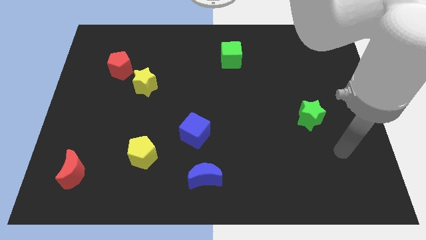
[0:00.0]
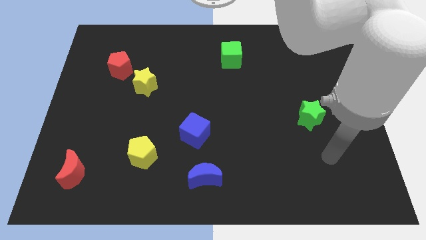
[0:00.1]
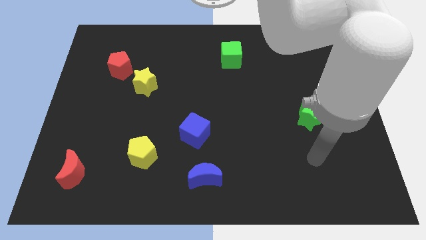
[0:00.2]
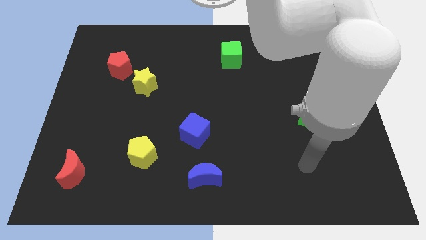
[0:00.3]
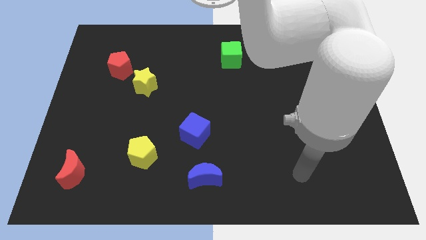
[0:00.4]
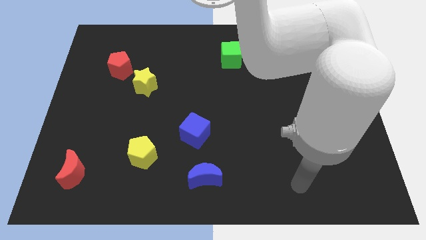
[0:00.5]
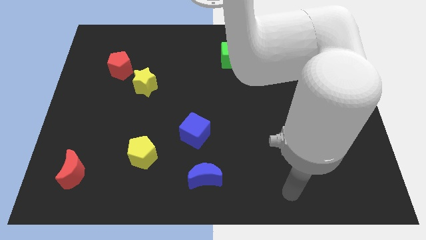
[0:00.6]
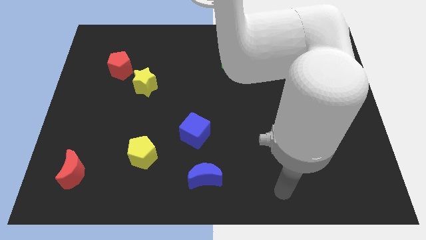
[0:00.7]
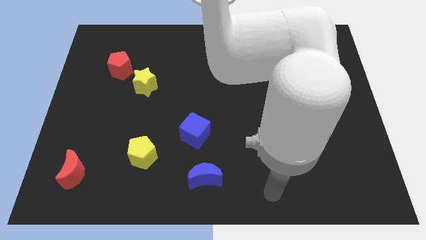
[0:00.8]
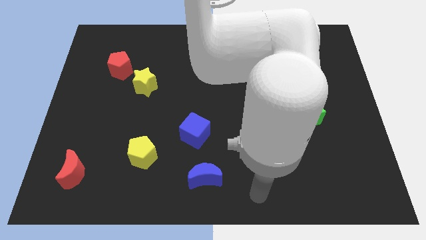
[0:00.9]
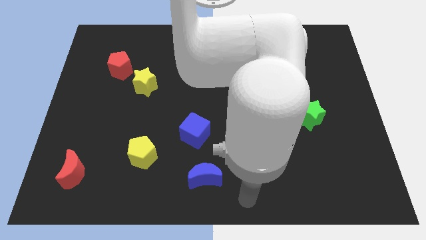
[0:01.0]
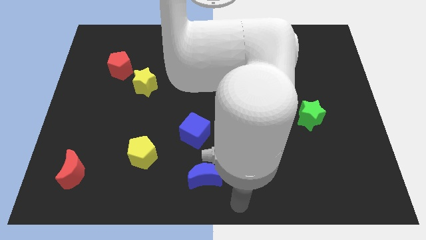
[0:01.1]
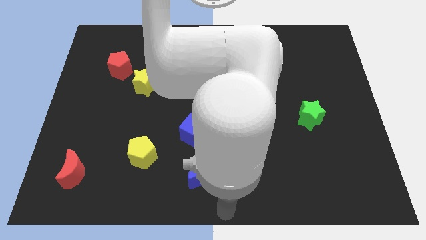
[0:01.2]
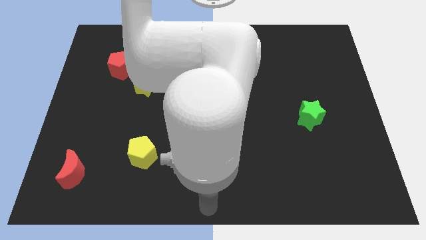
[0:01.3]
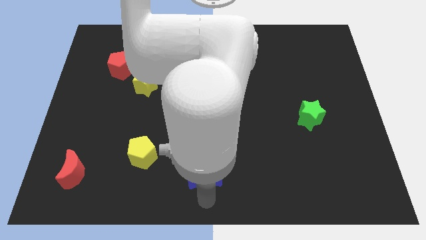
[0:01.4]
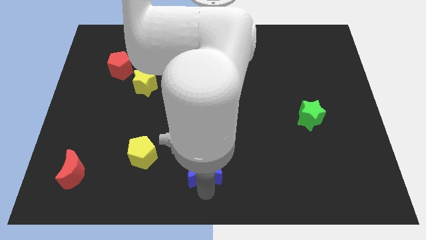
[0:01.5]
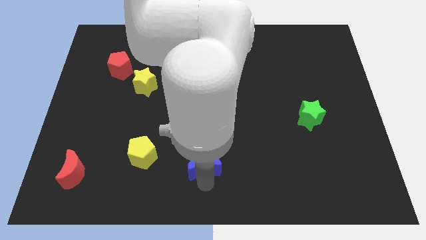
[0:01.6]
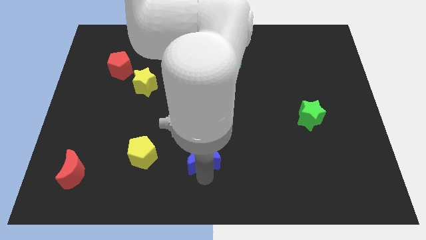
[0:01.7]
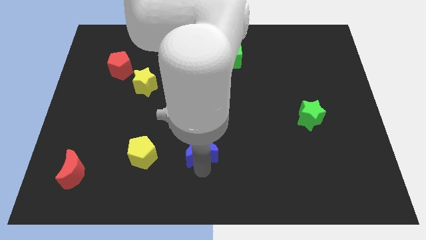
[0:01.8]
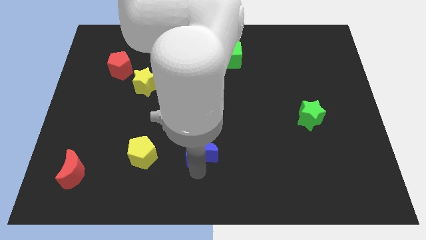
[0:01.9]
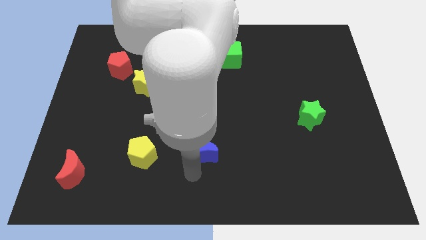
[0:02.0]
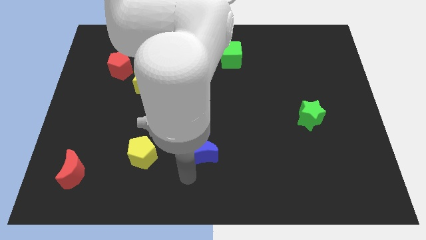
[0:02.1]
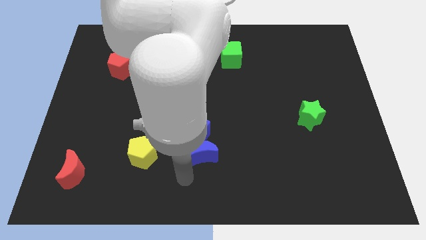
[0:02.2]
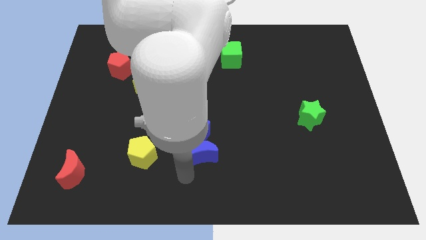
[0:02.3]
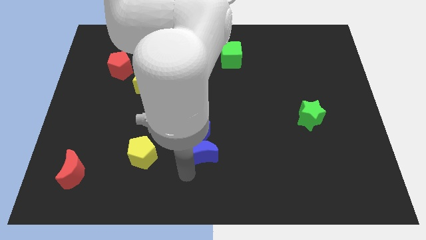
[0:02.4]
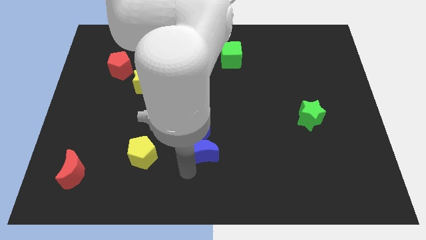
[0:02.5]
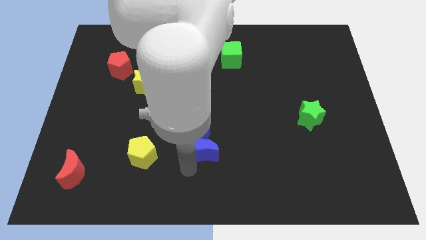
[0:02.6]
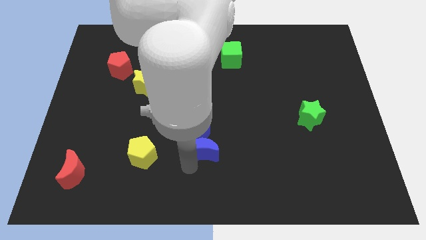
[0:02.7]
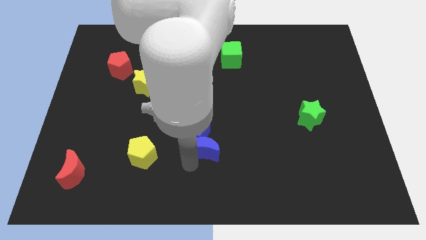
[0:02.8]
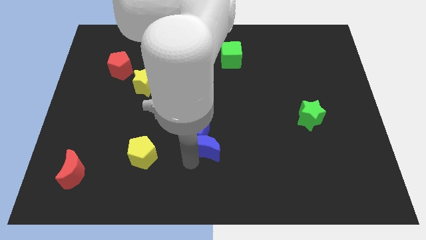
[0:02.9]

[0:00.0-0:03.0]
move the blue moon slightly up

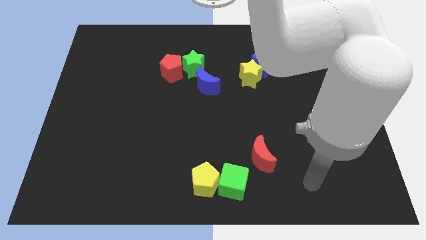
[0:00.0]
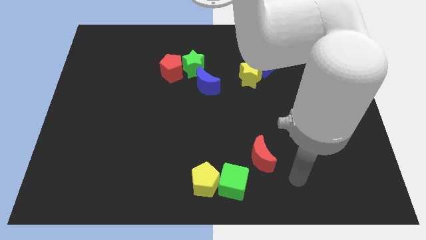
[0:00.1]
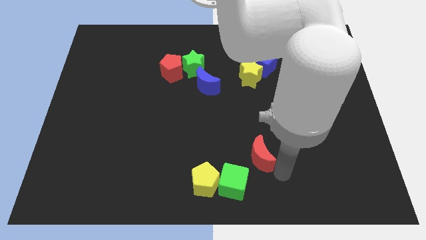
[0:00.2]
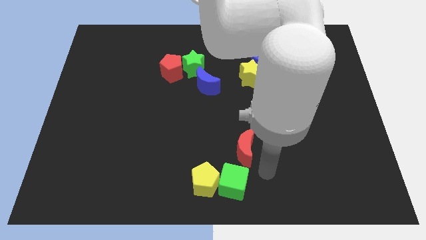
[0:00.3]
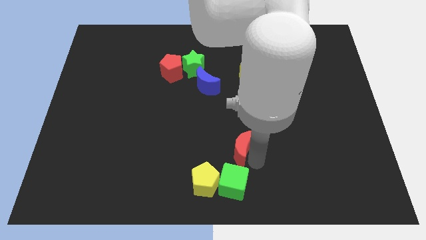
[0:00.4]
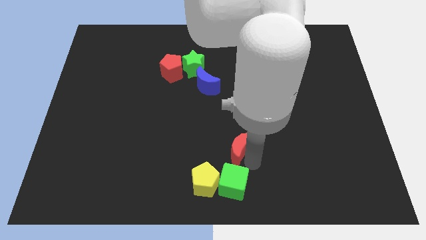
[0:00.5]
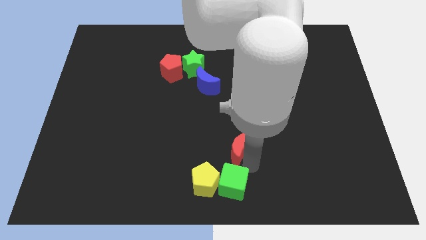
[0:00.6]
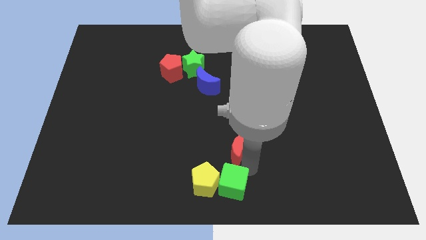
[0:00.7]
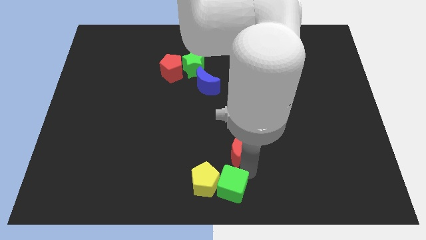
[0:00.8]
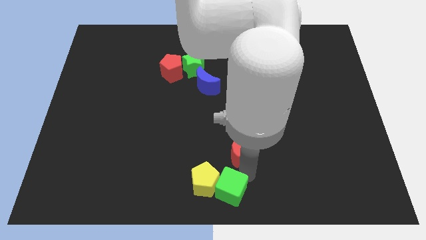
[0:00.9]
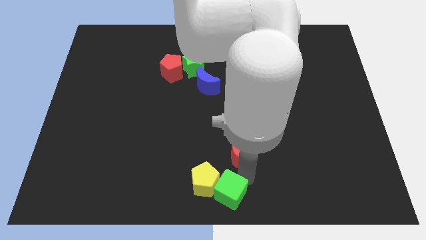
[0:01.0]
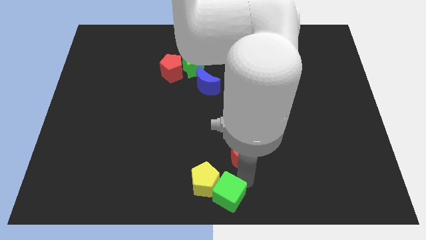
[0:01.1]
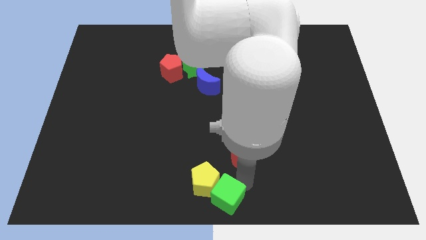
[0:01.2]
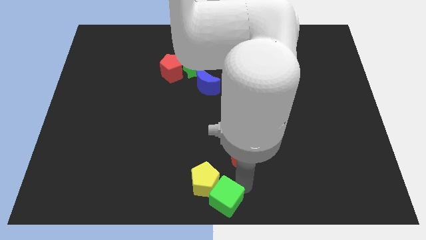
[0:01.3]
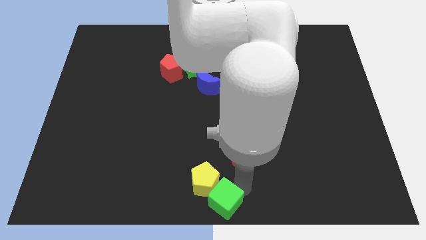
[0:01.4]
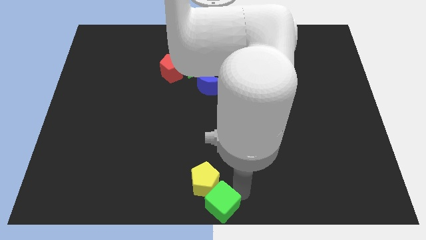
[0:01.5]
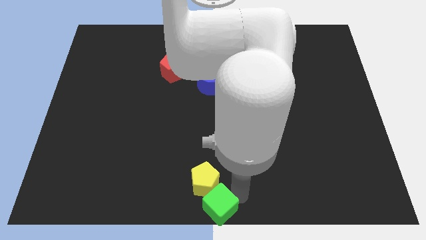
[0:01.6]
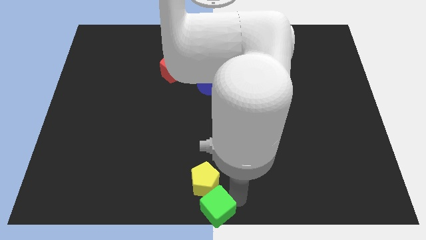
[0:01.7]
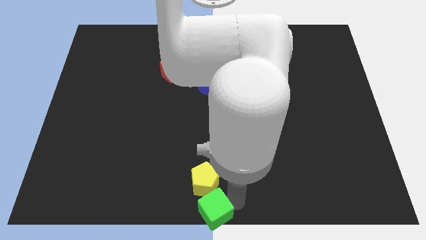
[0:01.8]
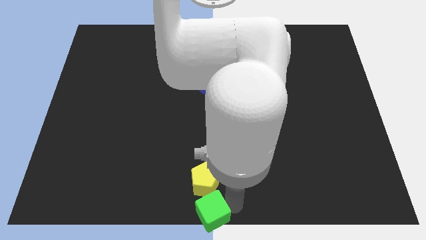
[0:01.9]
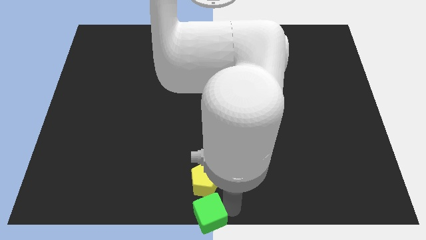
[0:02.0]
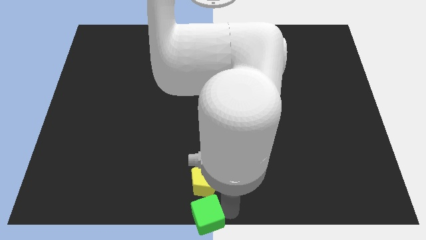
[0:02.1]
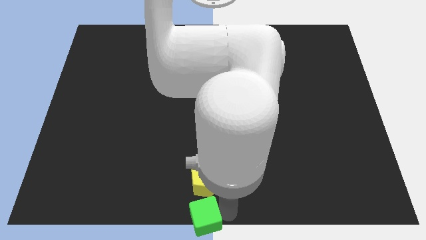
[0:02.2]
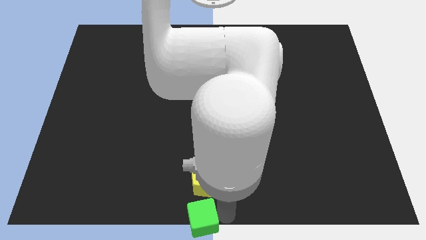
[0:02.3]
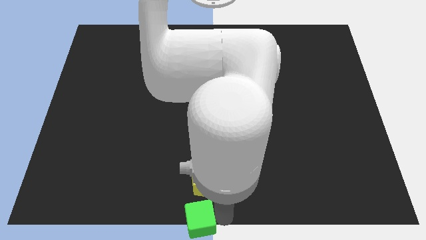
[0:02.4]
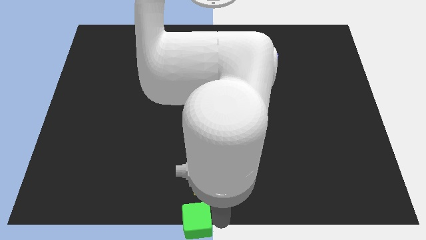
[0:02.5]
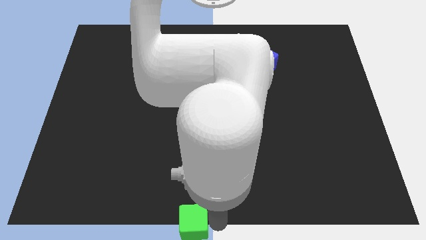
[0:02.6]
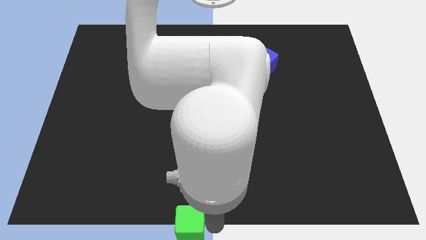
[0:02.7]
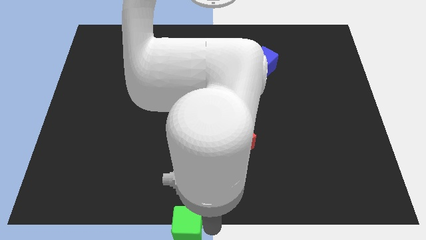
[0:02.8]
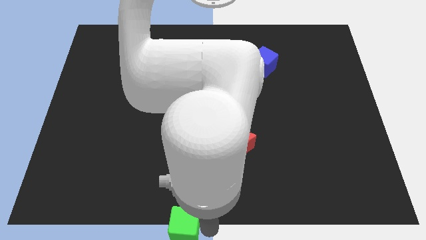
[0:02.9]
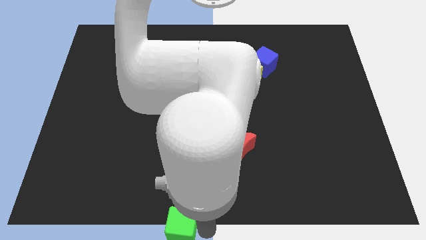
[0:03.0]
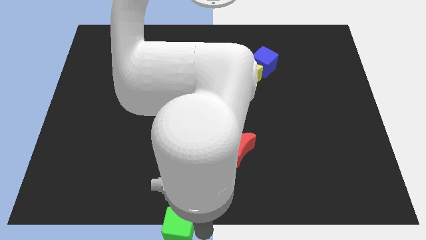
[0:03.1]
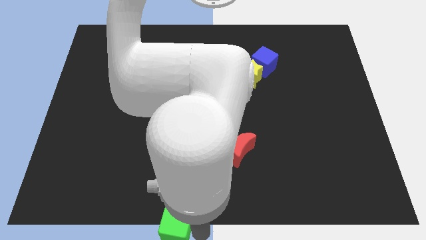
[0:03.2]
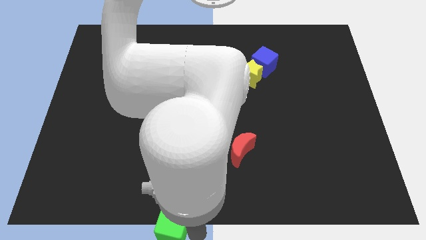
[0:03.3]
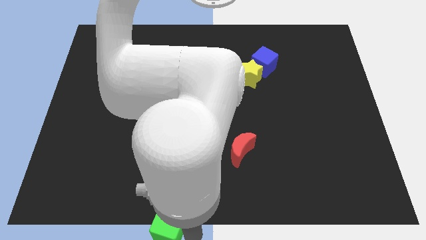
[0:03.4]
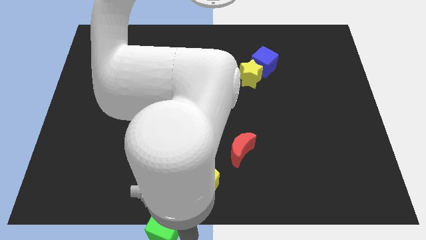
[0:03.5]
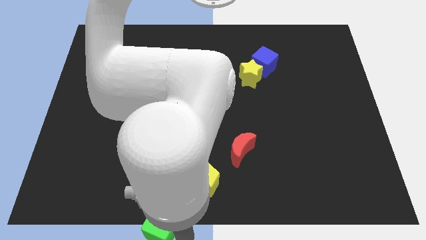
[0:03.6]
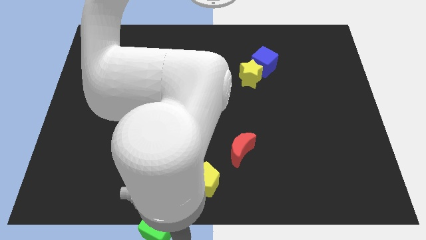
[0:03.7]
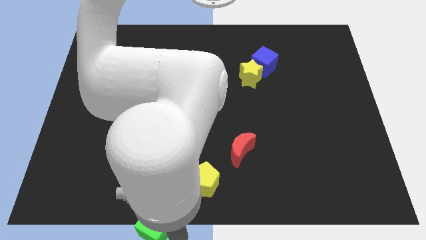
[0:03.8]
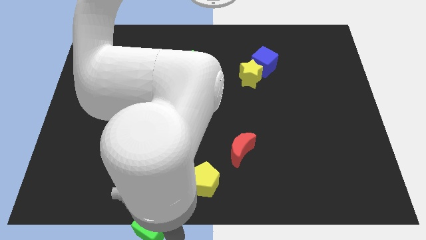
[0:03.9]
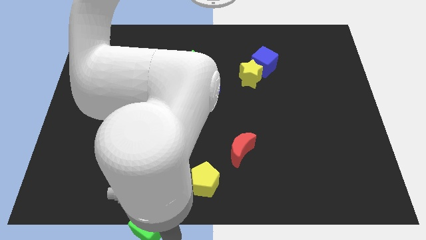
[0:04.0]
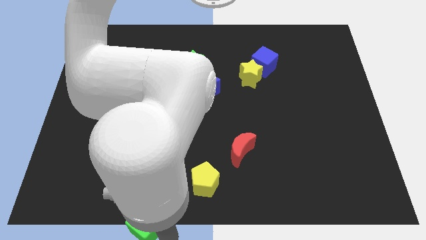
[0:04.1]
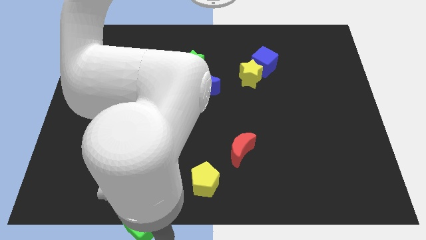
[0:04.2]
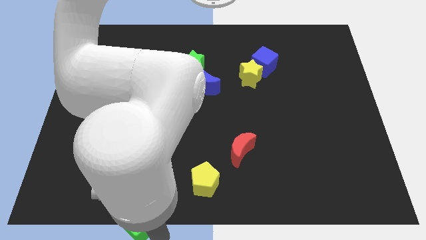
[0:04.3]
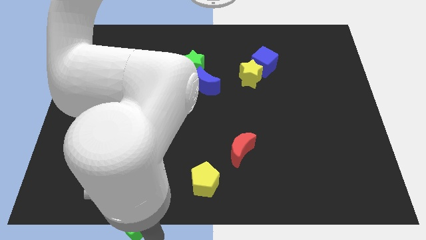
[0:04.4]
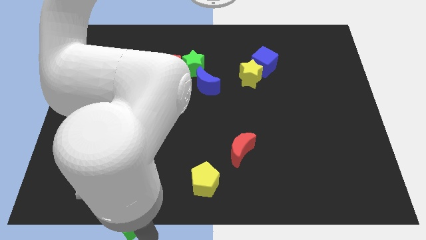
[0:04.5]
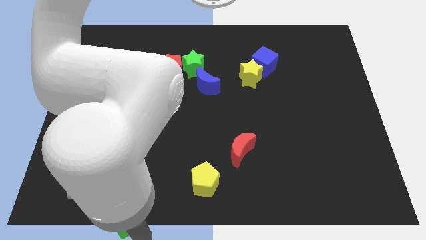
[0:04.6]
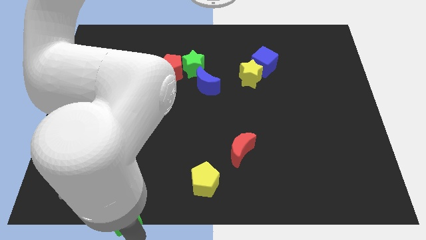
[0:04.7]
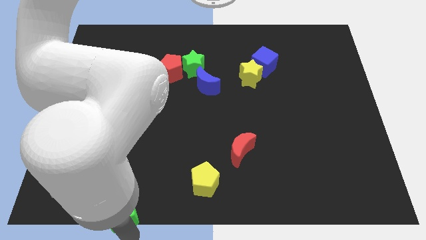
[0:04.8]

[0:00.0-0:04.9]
move the green cube left

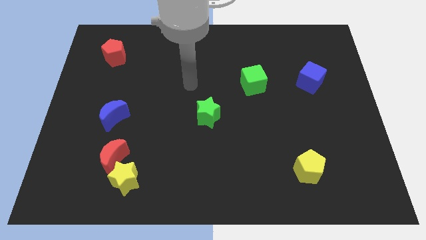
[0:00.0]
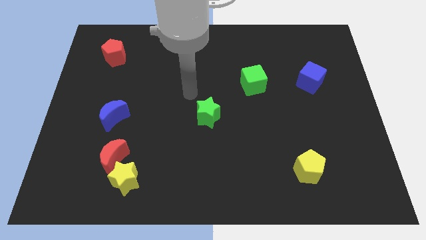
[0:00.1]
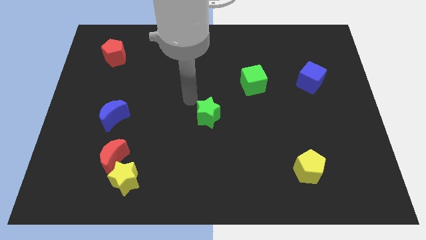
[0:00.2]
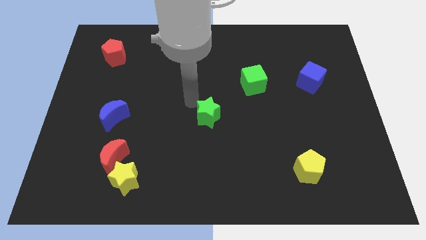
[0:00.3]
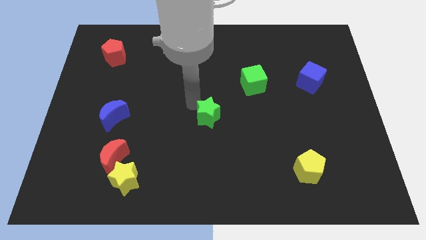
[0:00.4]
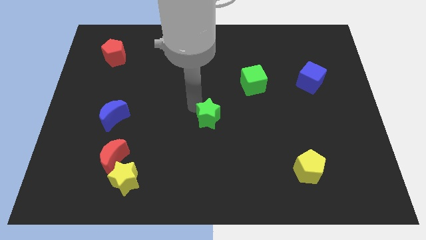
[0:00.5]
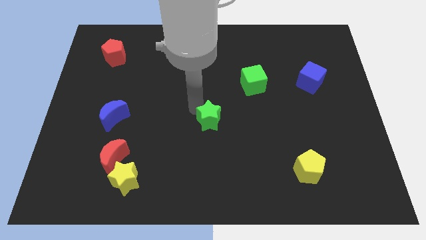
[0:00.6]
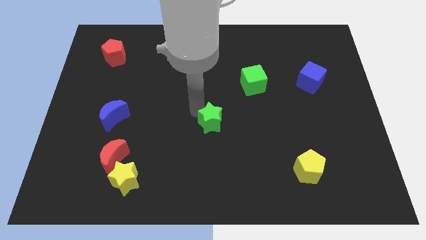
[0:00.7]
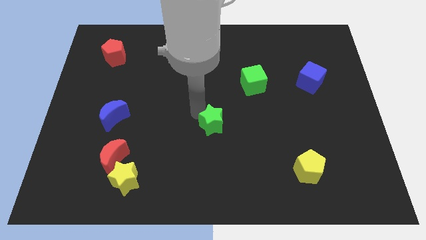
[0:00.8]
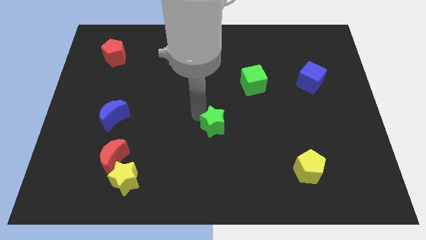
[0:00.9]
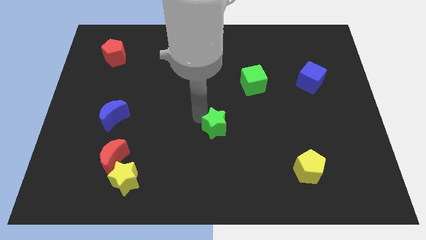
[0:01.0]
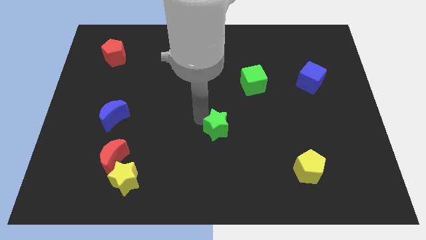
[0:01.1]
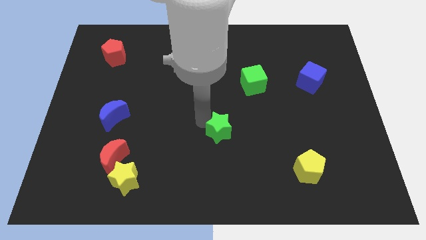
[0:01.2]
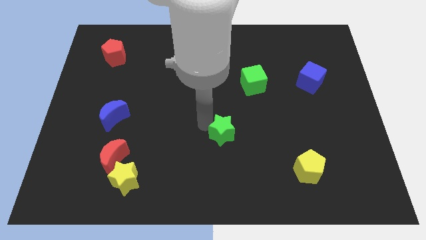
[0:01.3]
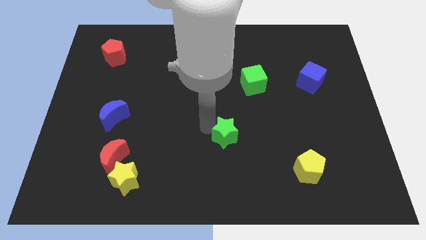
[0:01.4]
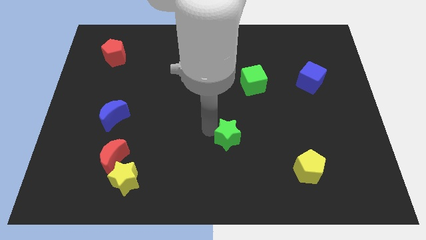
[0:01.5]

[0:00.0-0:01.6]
move the green star diagonally down and to the right somewhat
